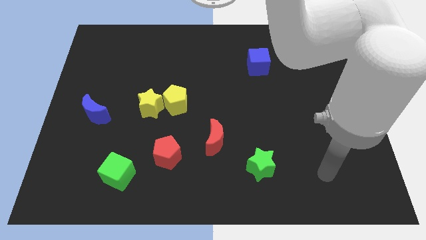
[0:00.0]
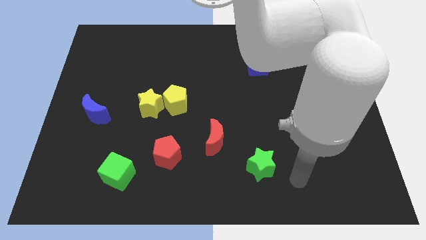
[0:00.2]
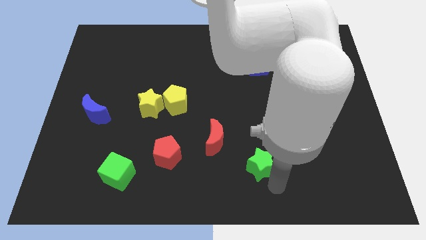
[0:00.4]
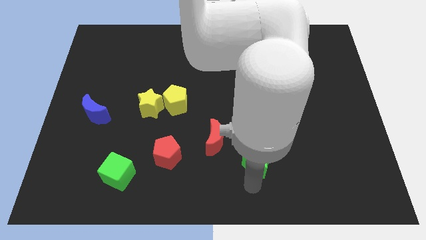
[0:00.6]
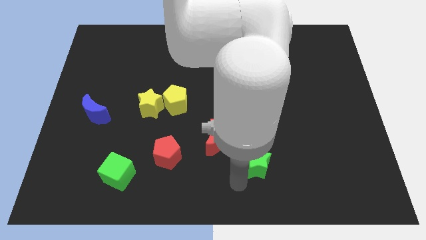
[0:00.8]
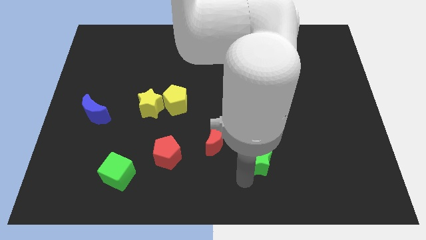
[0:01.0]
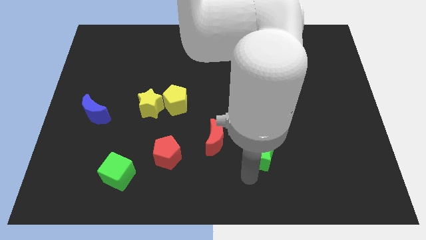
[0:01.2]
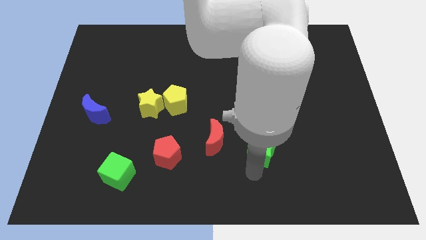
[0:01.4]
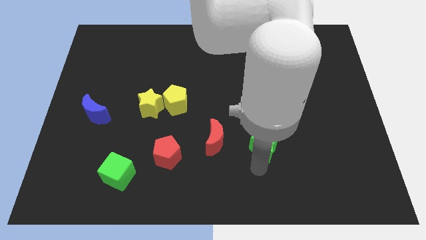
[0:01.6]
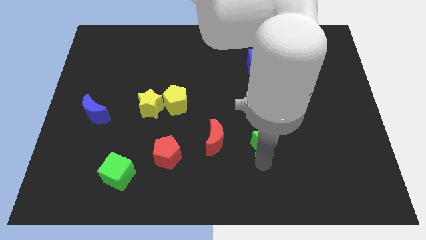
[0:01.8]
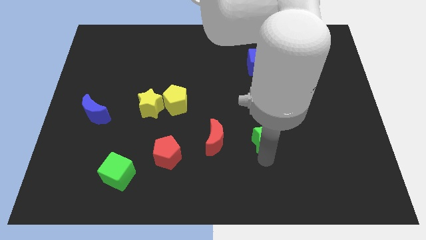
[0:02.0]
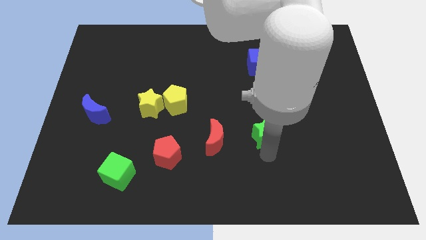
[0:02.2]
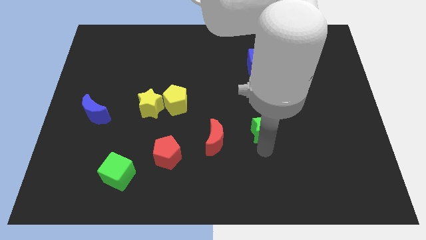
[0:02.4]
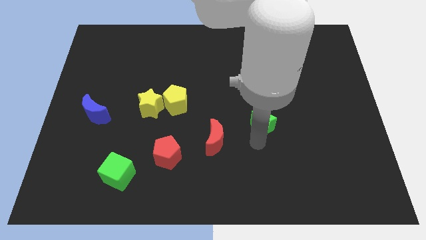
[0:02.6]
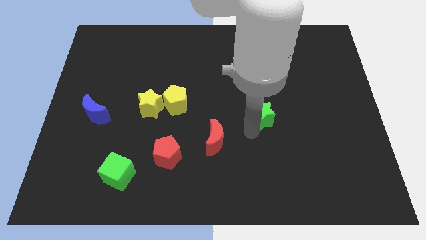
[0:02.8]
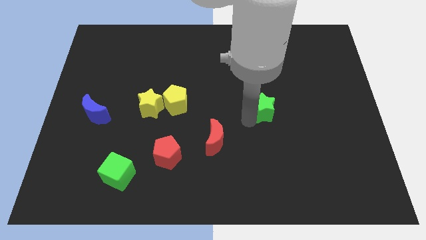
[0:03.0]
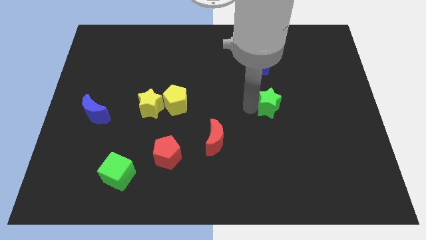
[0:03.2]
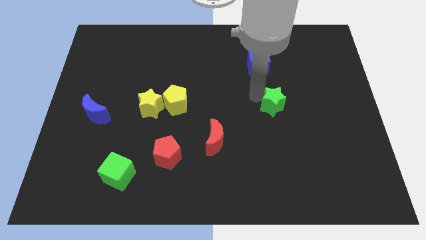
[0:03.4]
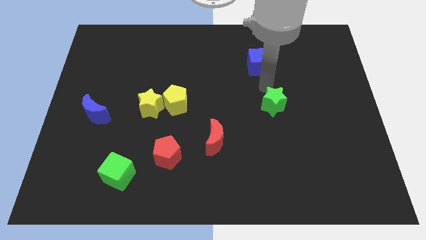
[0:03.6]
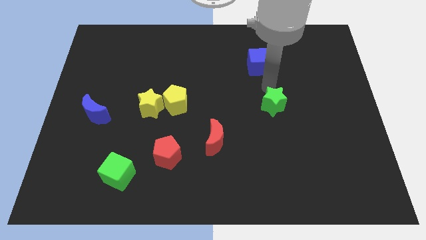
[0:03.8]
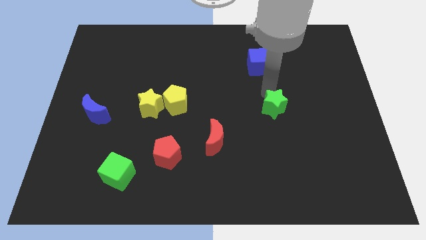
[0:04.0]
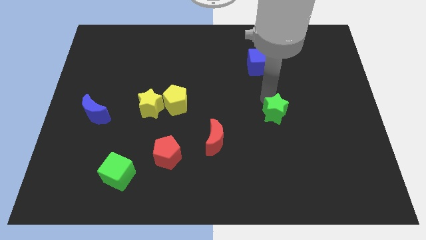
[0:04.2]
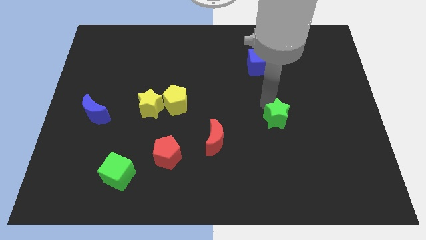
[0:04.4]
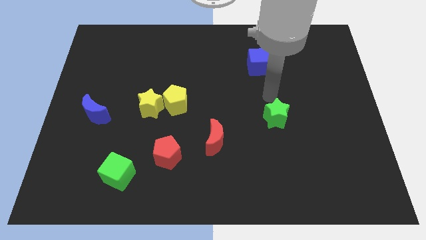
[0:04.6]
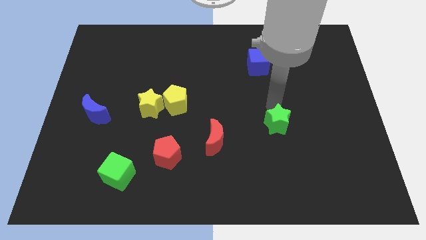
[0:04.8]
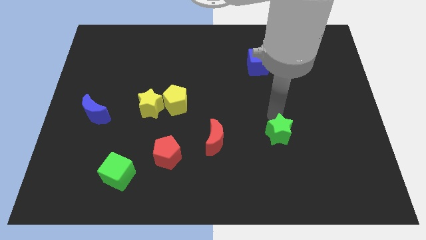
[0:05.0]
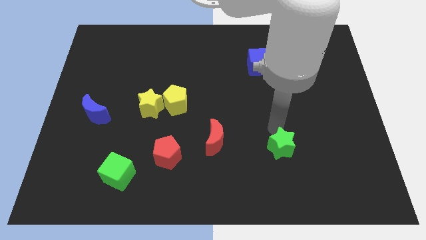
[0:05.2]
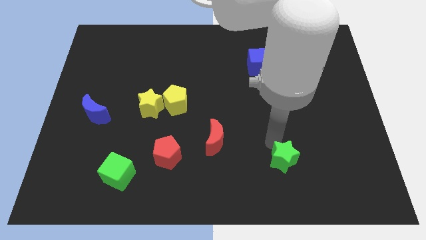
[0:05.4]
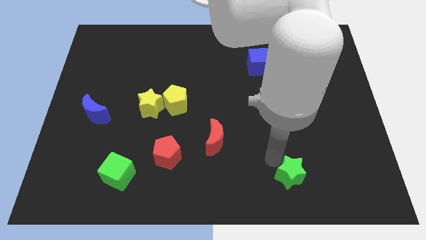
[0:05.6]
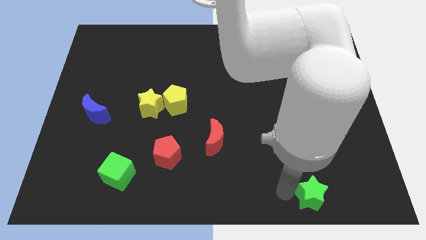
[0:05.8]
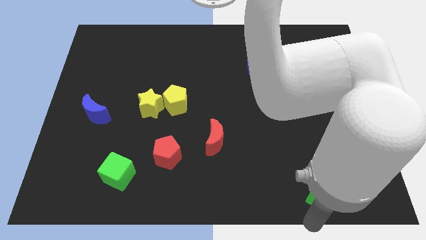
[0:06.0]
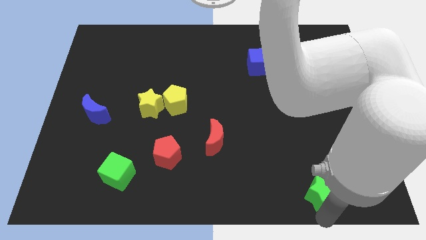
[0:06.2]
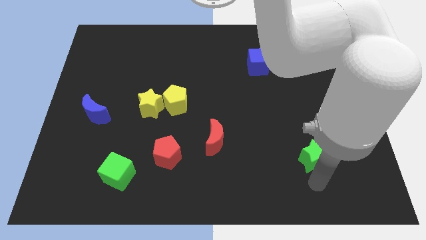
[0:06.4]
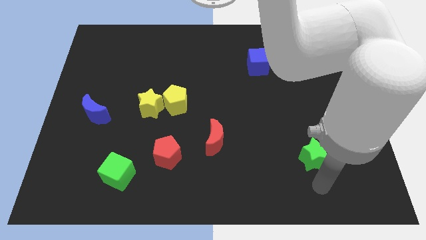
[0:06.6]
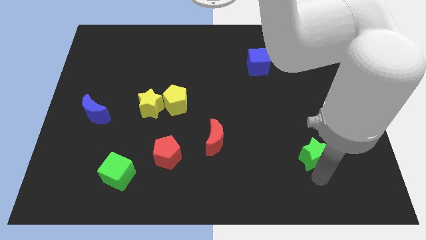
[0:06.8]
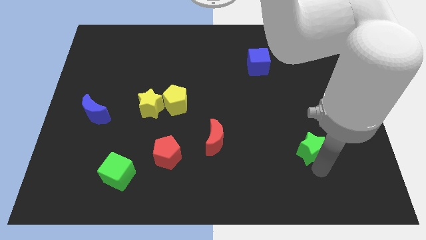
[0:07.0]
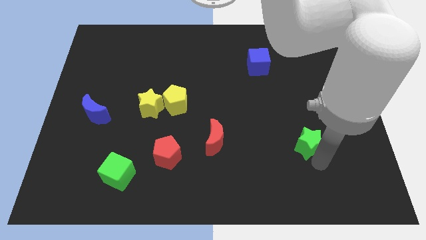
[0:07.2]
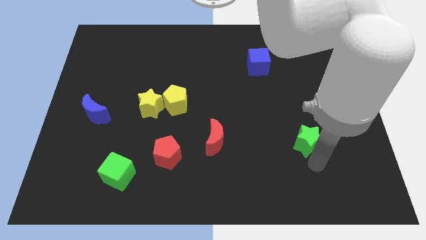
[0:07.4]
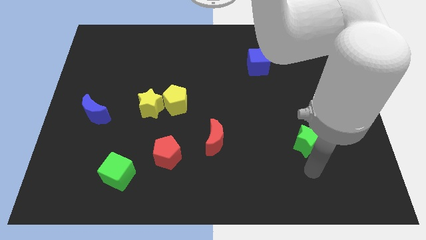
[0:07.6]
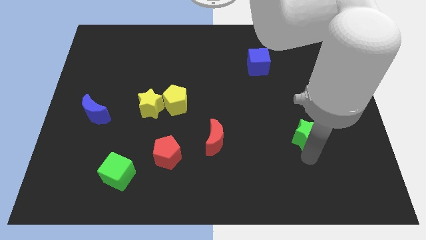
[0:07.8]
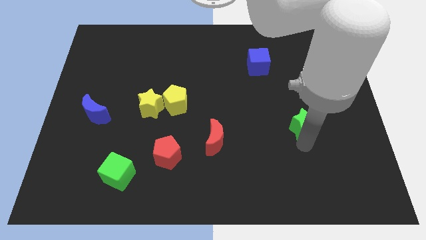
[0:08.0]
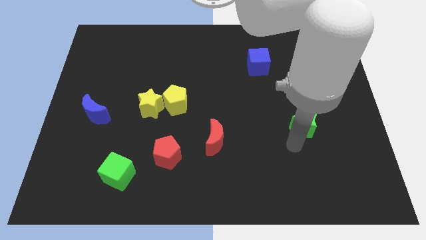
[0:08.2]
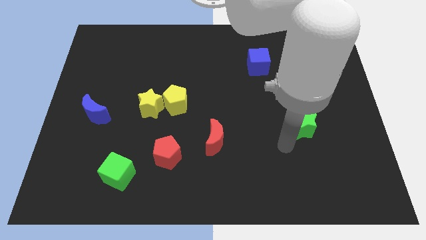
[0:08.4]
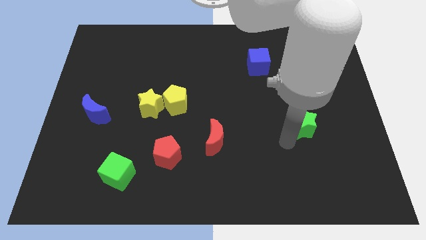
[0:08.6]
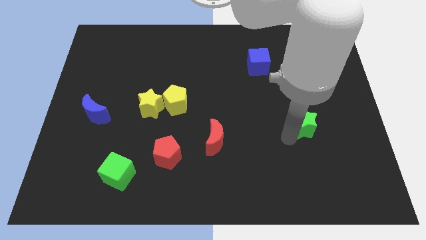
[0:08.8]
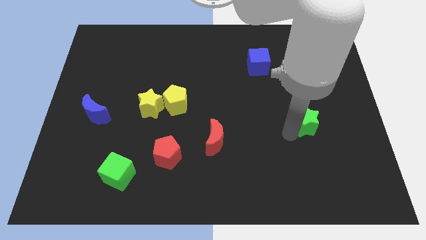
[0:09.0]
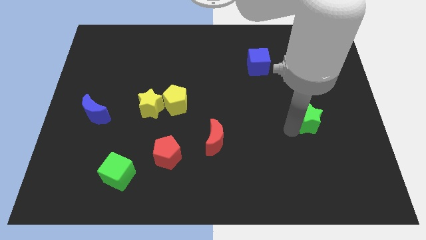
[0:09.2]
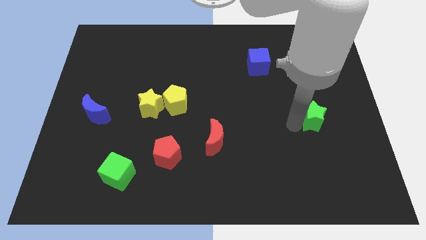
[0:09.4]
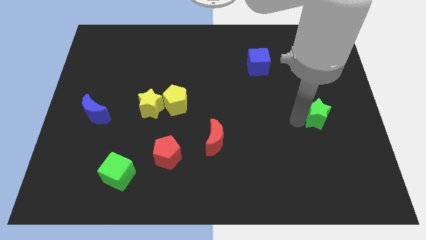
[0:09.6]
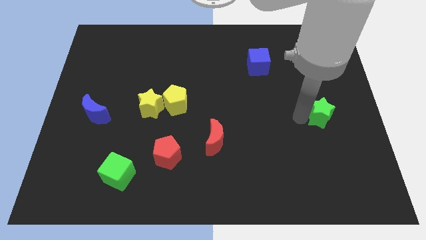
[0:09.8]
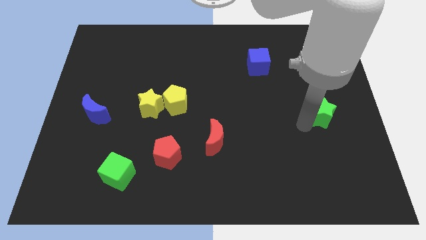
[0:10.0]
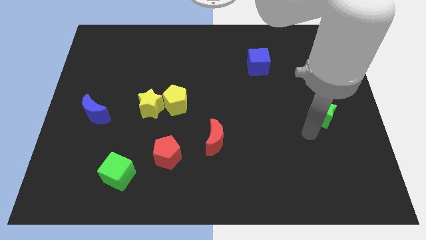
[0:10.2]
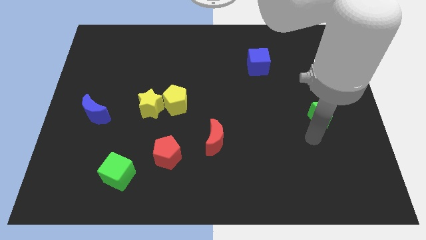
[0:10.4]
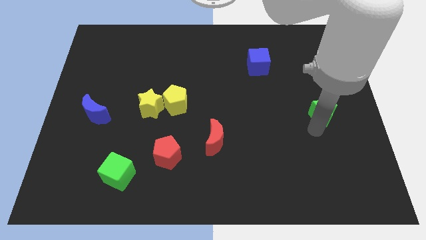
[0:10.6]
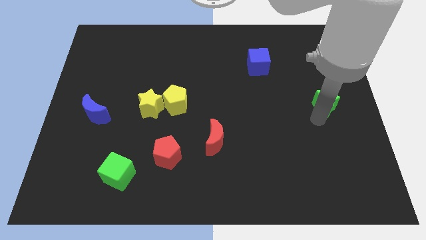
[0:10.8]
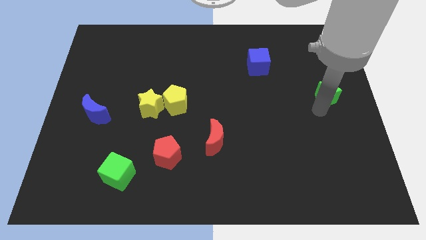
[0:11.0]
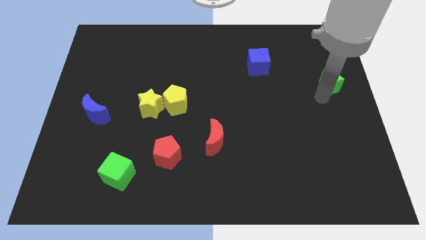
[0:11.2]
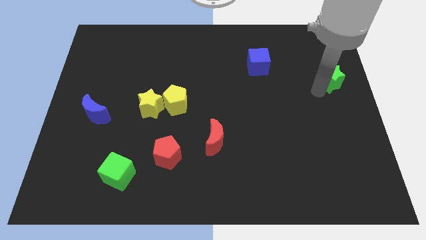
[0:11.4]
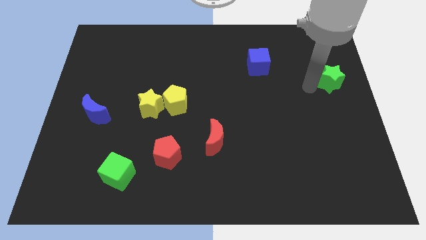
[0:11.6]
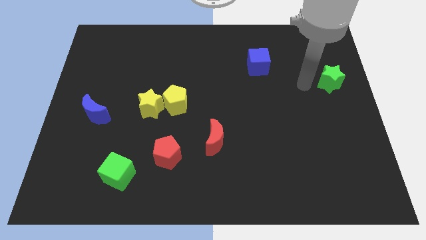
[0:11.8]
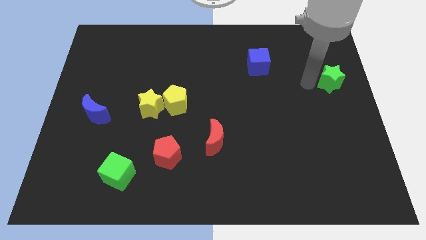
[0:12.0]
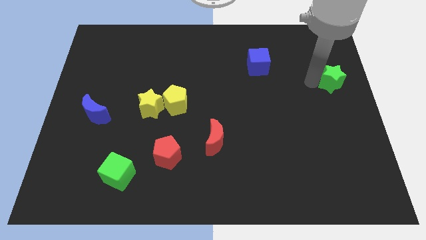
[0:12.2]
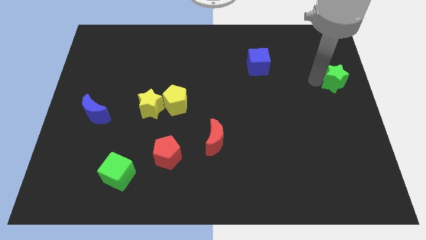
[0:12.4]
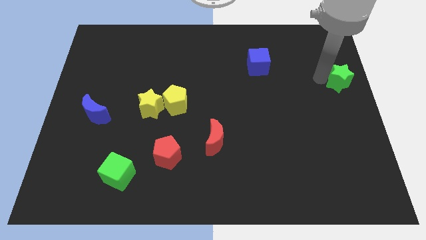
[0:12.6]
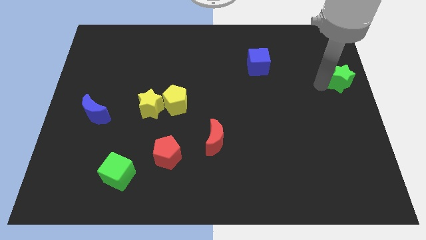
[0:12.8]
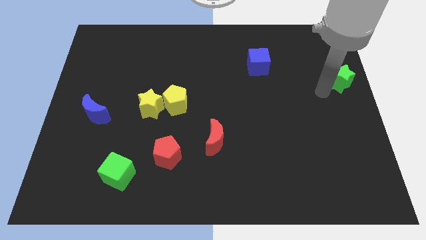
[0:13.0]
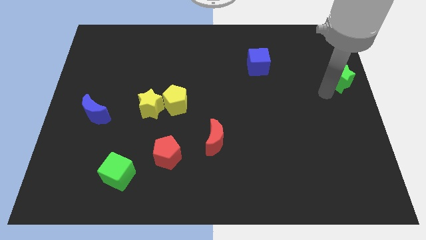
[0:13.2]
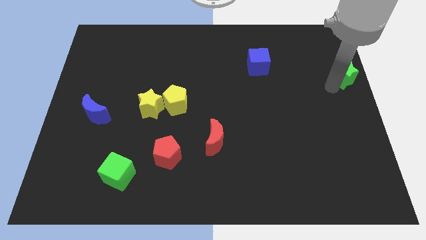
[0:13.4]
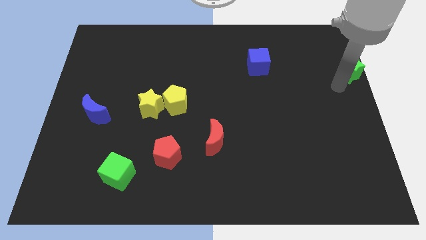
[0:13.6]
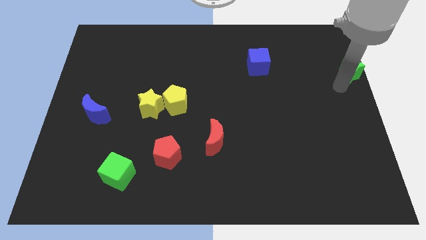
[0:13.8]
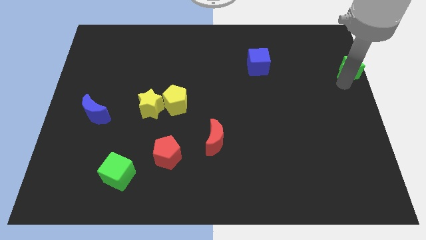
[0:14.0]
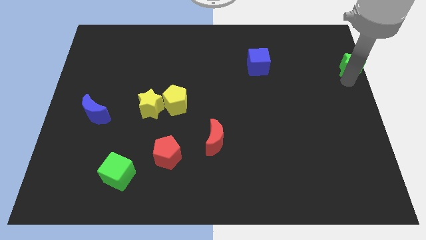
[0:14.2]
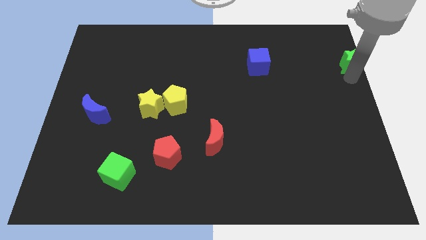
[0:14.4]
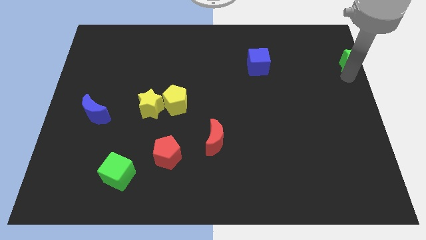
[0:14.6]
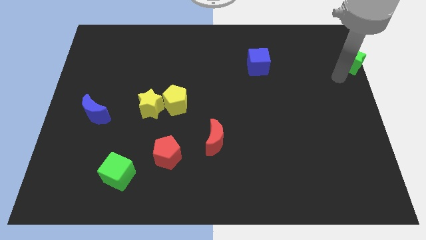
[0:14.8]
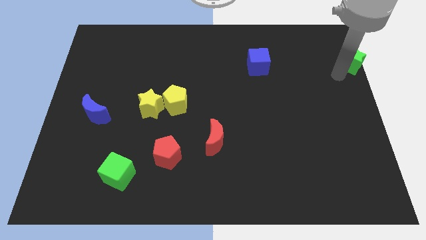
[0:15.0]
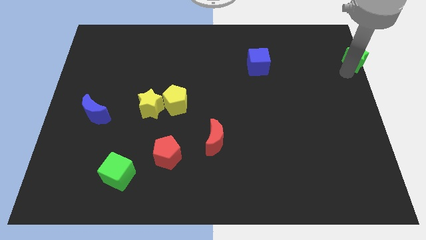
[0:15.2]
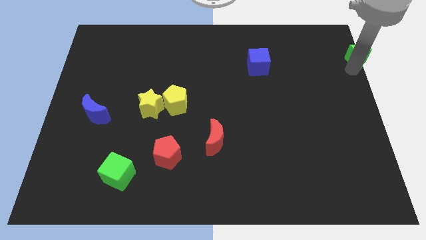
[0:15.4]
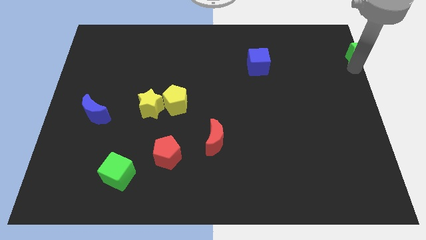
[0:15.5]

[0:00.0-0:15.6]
push the green star to the upper right corner
